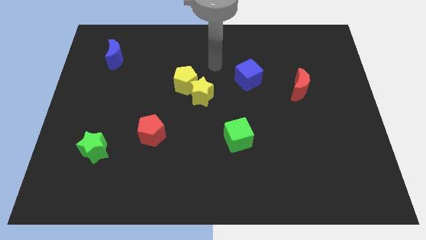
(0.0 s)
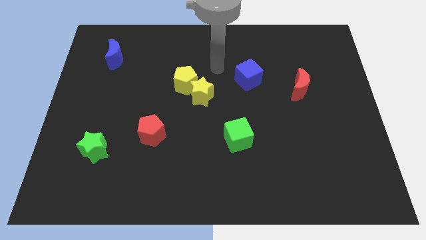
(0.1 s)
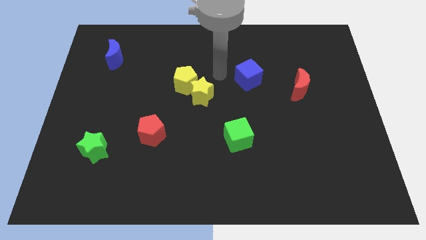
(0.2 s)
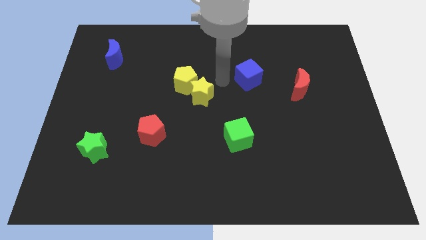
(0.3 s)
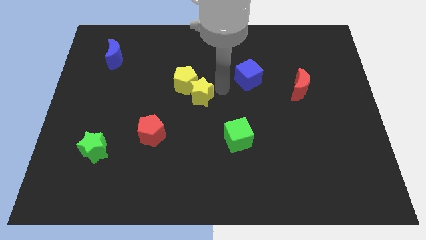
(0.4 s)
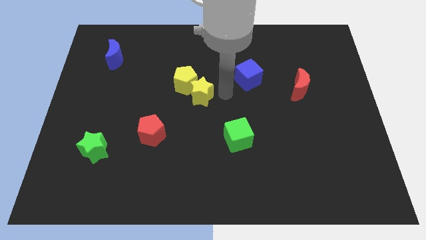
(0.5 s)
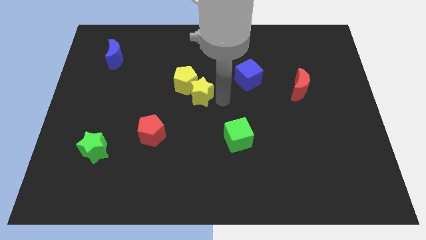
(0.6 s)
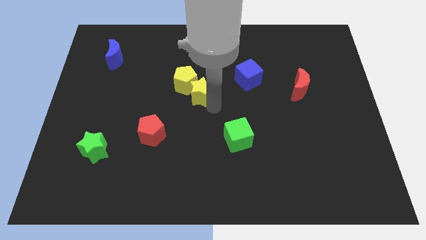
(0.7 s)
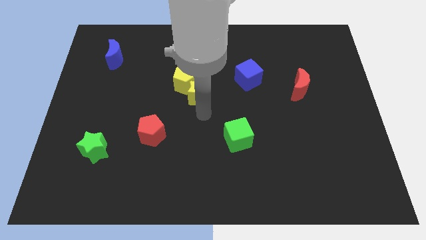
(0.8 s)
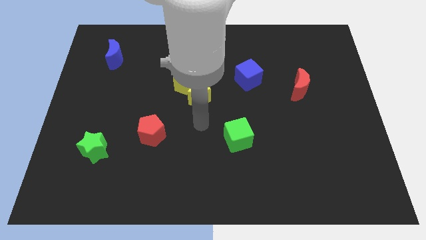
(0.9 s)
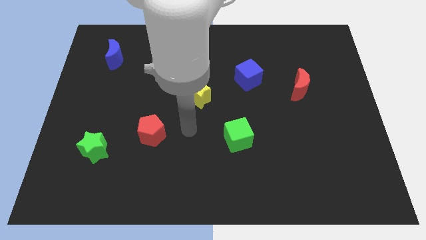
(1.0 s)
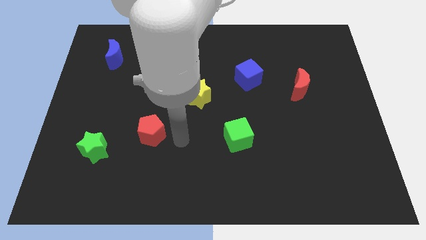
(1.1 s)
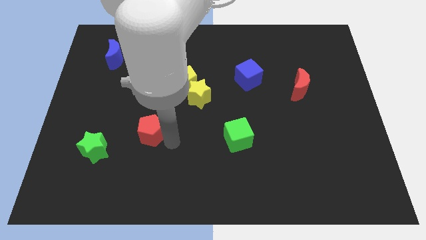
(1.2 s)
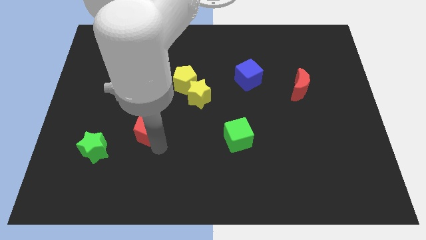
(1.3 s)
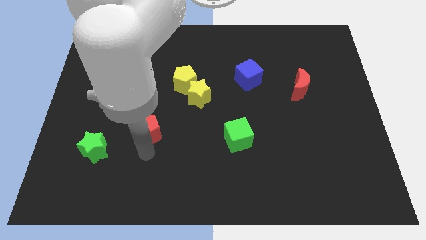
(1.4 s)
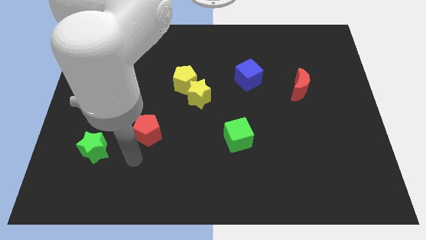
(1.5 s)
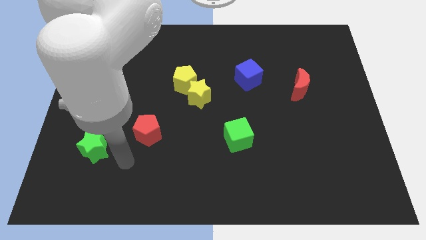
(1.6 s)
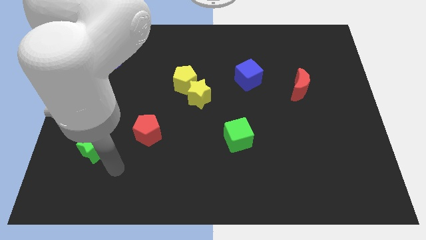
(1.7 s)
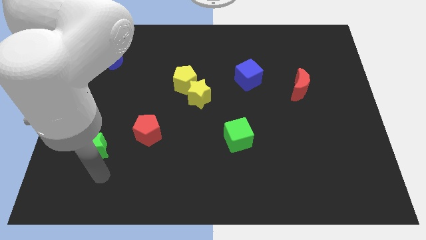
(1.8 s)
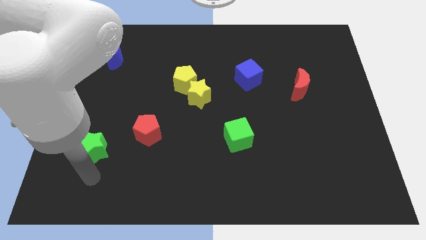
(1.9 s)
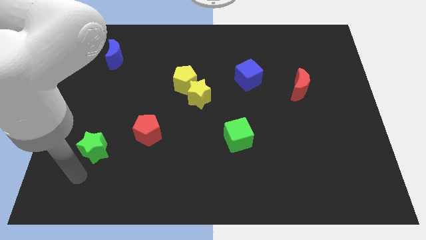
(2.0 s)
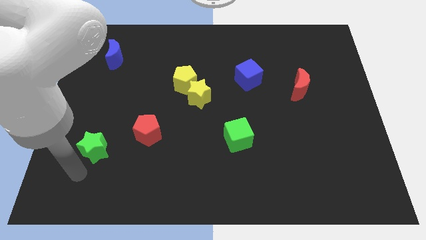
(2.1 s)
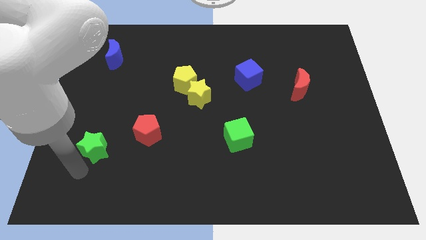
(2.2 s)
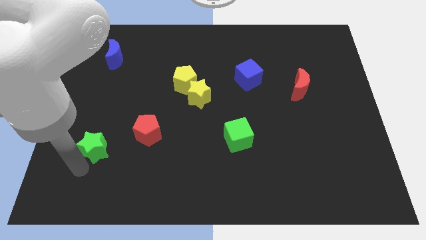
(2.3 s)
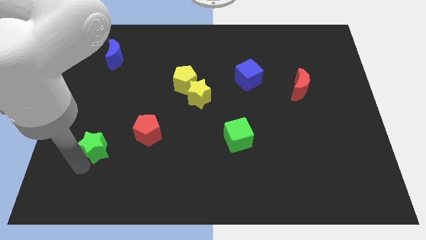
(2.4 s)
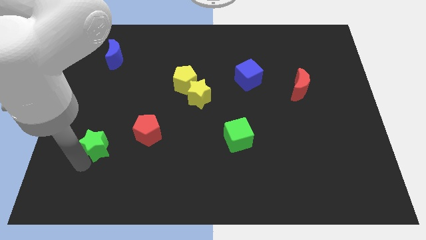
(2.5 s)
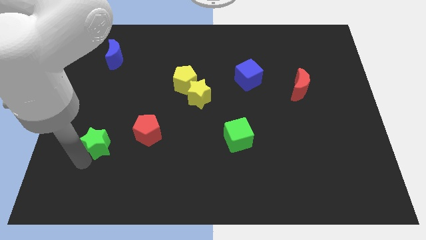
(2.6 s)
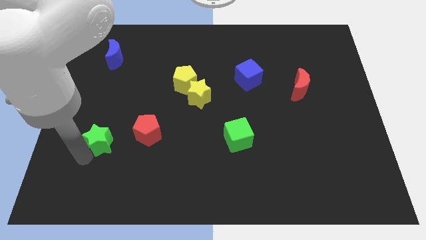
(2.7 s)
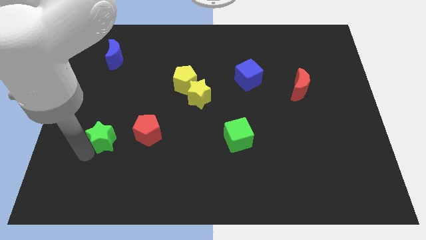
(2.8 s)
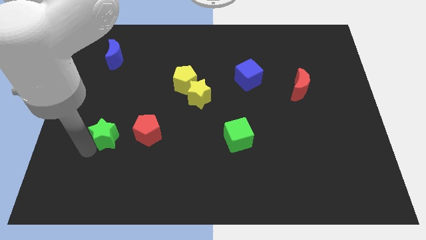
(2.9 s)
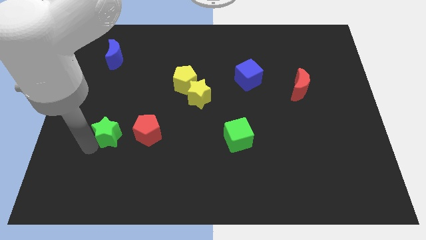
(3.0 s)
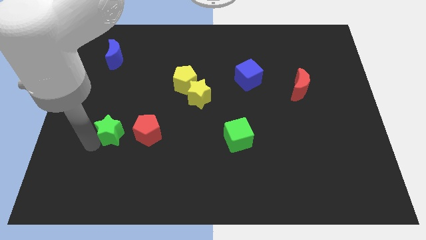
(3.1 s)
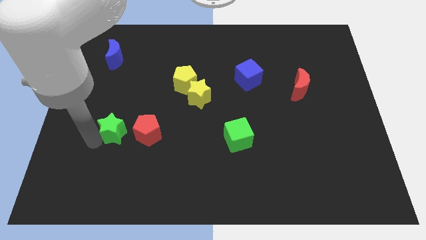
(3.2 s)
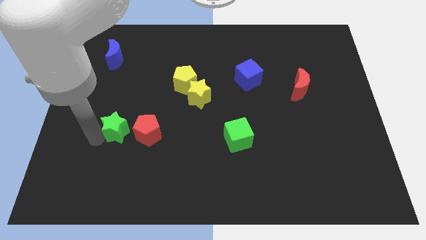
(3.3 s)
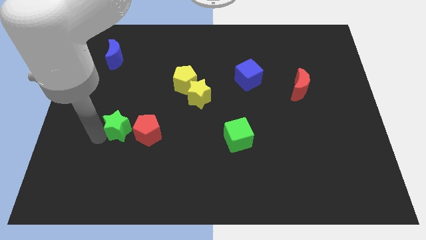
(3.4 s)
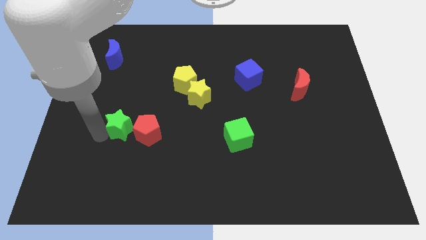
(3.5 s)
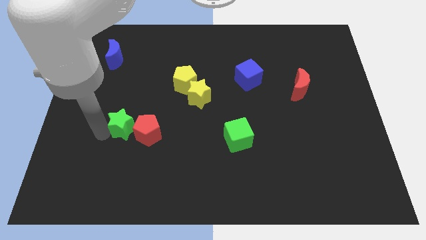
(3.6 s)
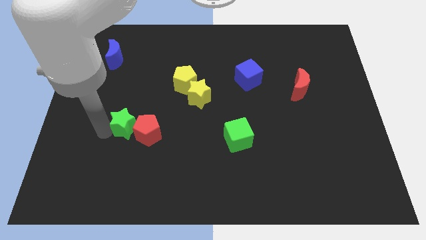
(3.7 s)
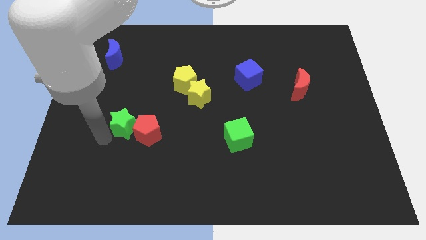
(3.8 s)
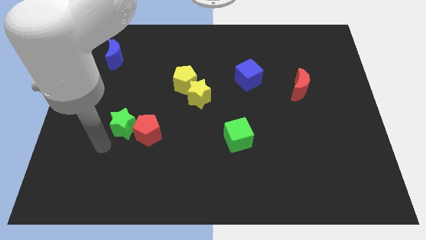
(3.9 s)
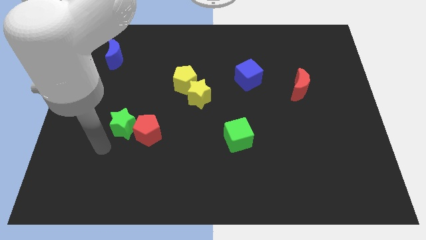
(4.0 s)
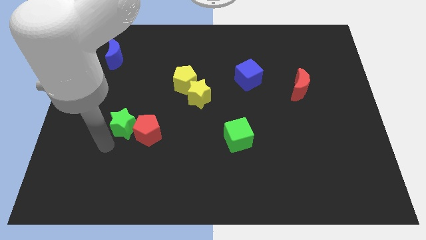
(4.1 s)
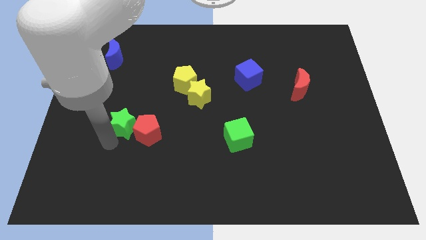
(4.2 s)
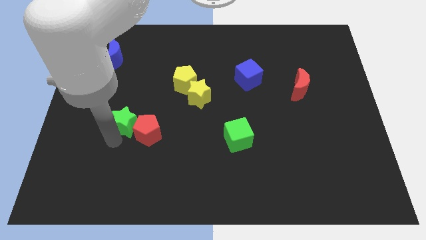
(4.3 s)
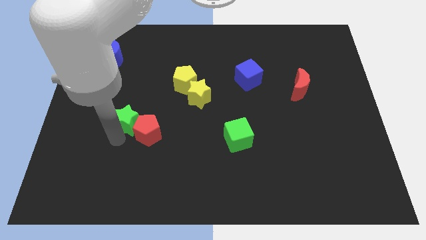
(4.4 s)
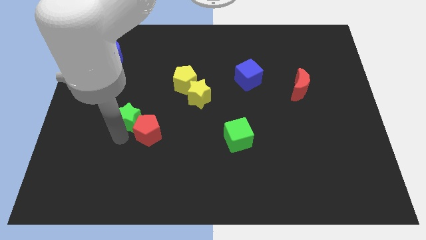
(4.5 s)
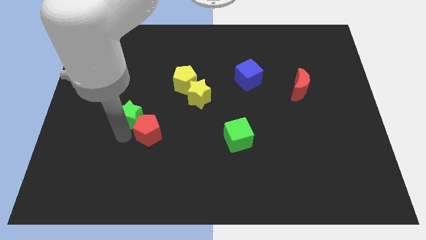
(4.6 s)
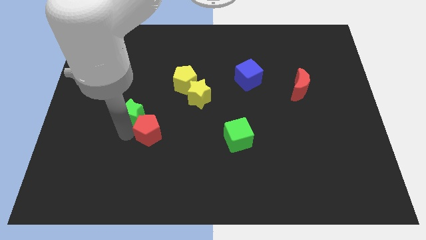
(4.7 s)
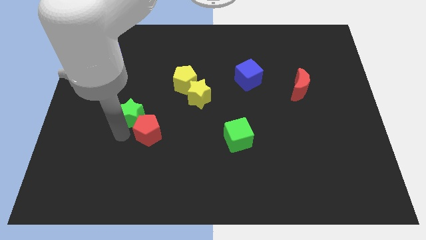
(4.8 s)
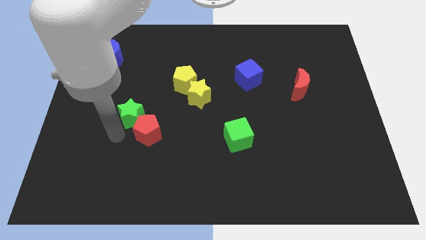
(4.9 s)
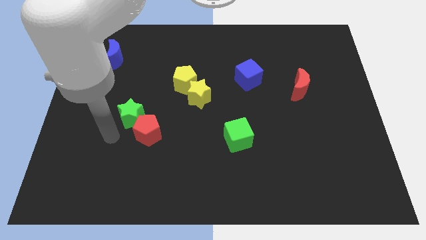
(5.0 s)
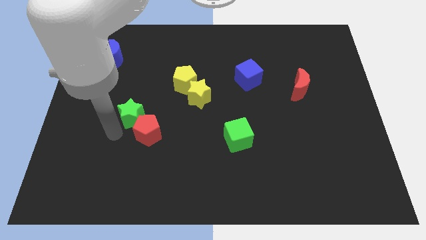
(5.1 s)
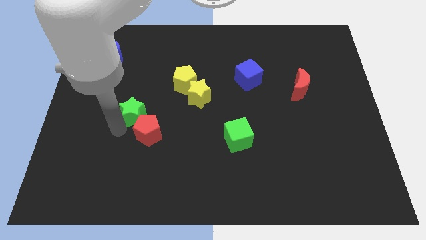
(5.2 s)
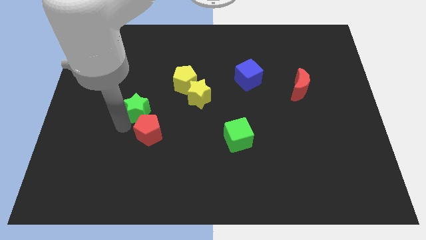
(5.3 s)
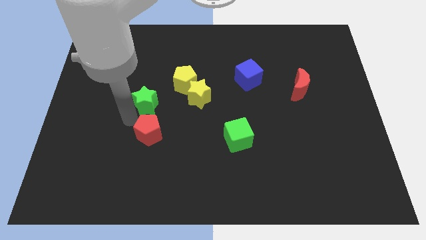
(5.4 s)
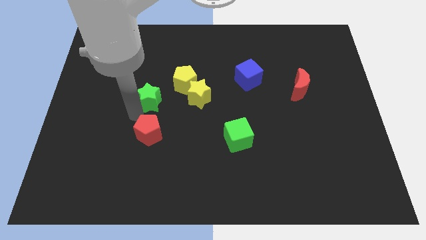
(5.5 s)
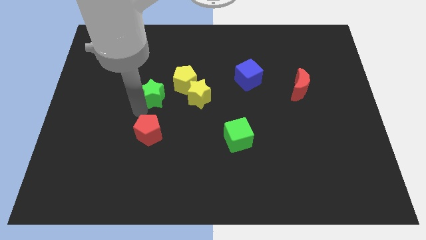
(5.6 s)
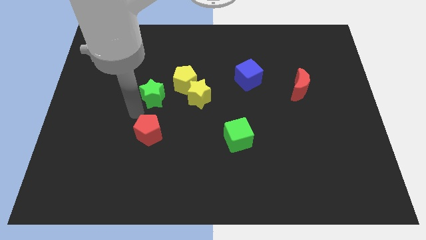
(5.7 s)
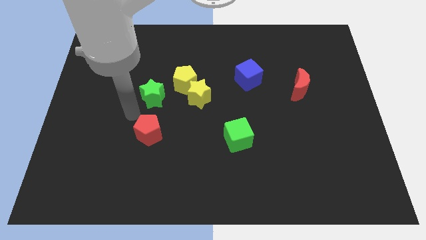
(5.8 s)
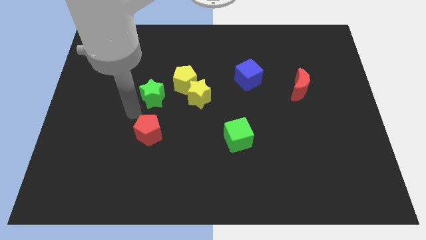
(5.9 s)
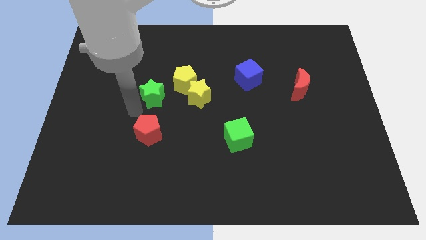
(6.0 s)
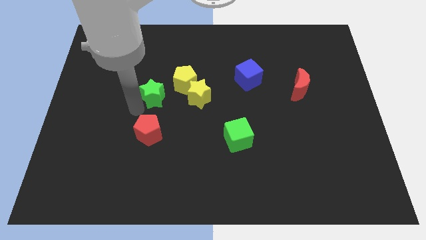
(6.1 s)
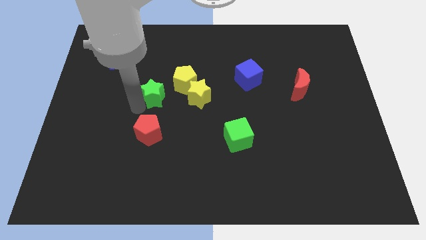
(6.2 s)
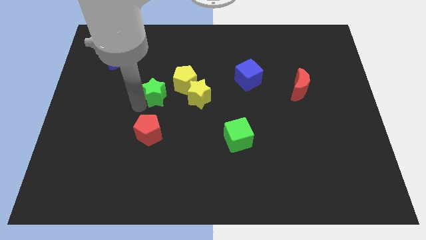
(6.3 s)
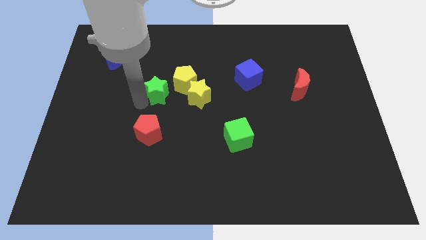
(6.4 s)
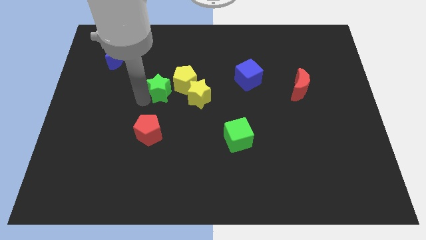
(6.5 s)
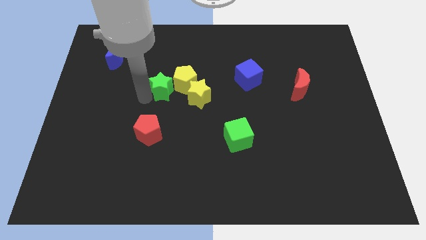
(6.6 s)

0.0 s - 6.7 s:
move the green star next to the yellow pentagon
